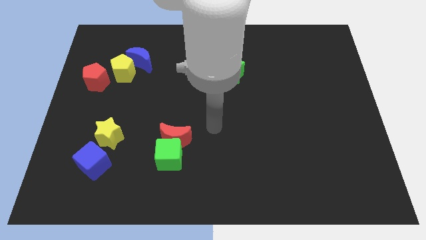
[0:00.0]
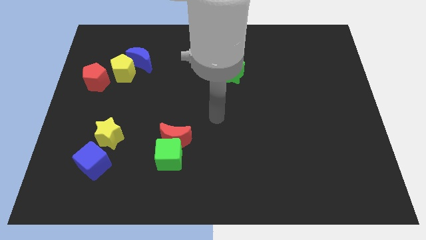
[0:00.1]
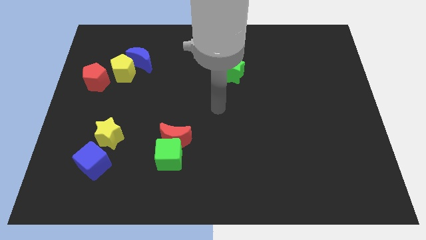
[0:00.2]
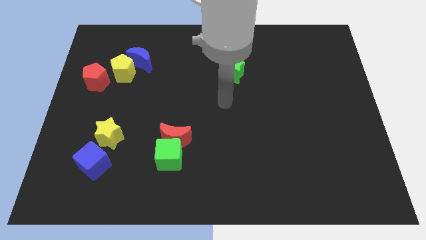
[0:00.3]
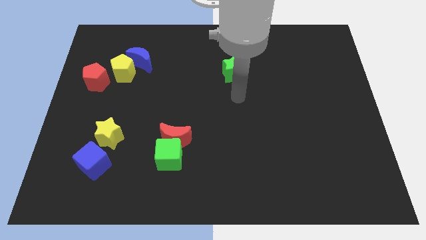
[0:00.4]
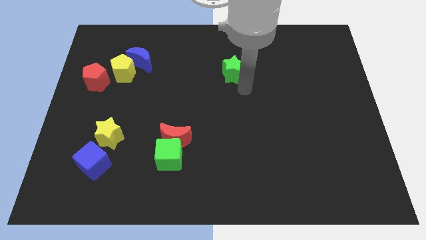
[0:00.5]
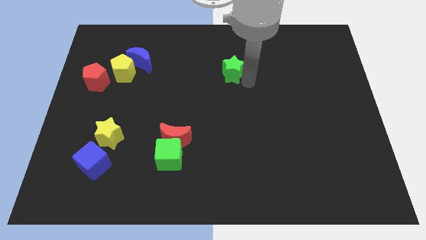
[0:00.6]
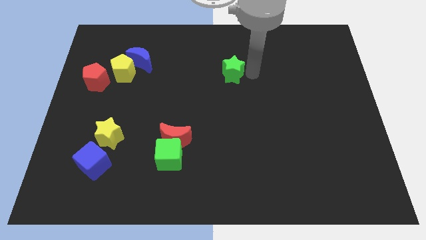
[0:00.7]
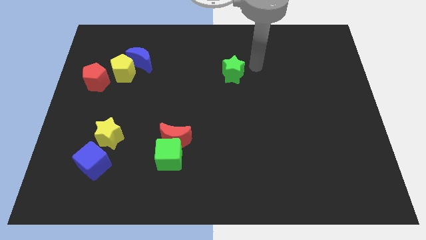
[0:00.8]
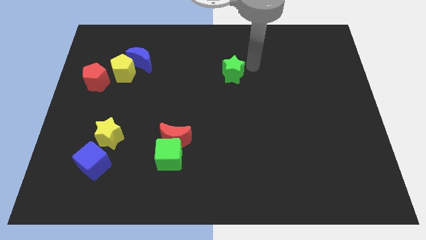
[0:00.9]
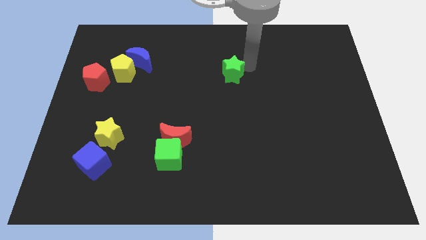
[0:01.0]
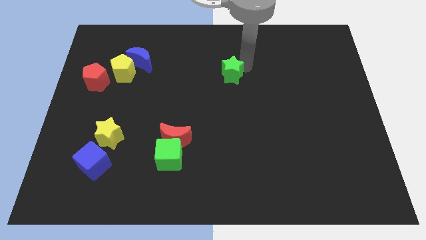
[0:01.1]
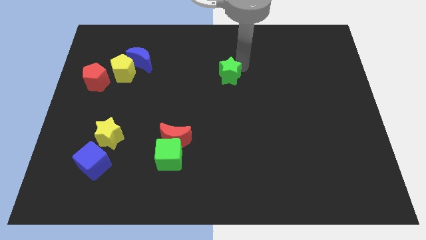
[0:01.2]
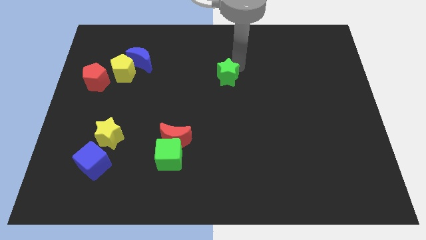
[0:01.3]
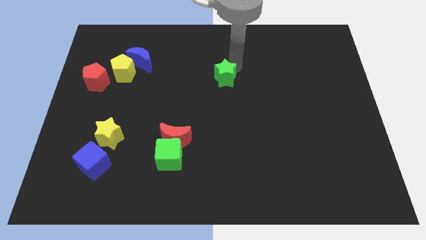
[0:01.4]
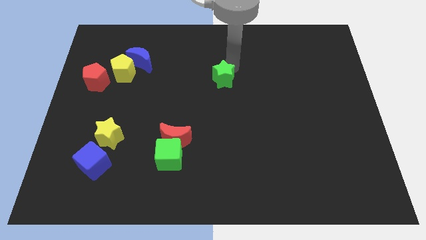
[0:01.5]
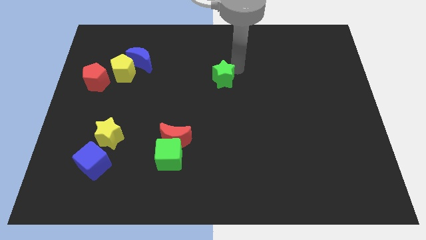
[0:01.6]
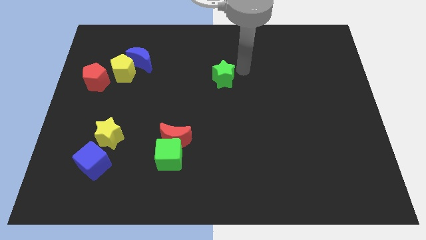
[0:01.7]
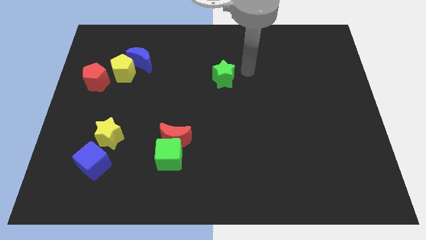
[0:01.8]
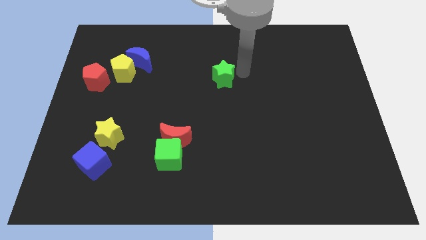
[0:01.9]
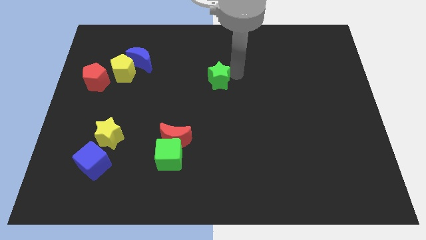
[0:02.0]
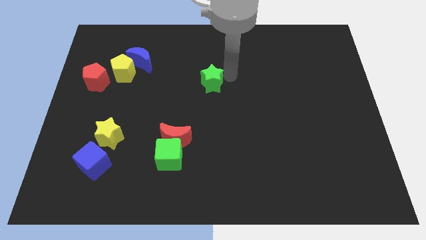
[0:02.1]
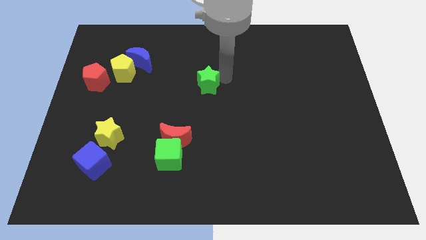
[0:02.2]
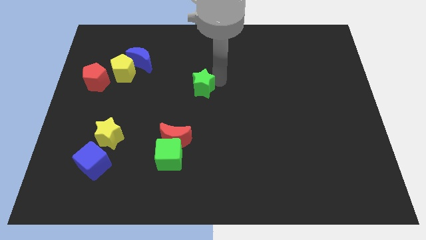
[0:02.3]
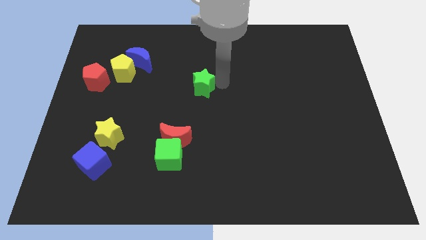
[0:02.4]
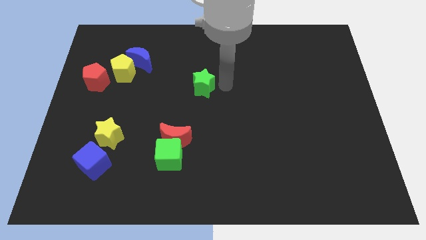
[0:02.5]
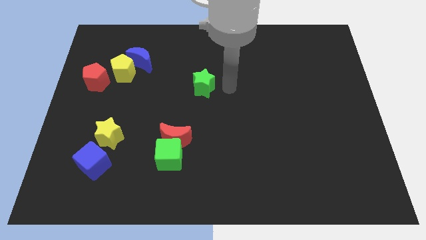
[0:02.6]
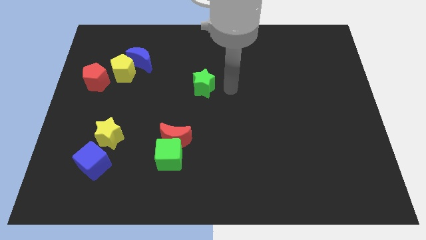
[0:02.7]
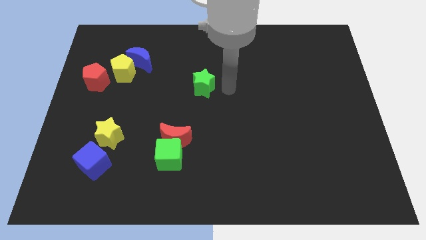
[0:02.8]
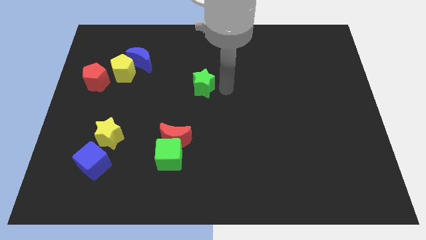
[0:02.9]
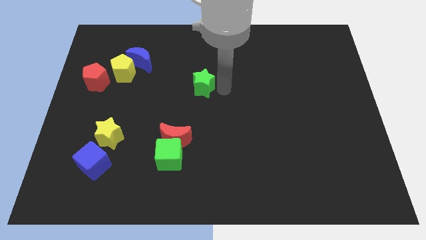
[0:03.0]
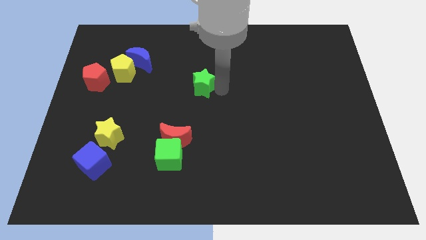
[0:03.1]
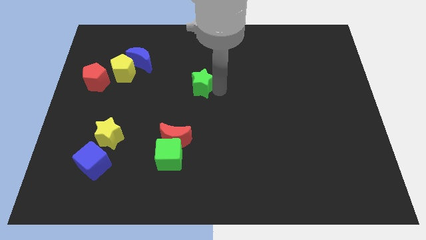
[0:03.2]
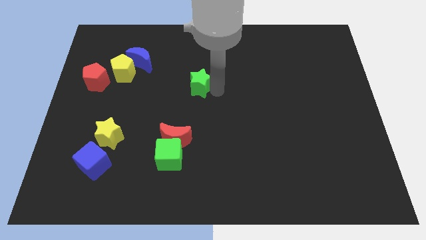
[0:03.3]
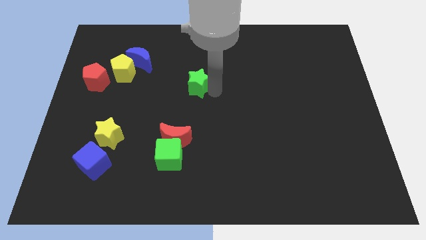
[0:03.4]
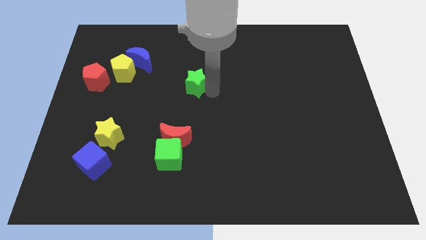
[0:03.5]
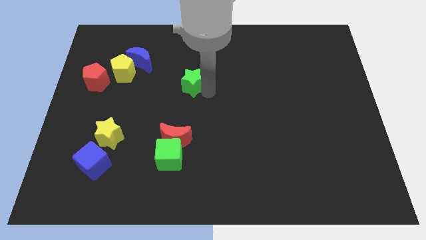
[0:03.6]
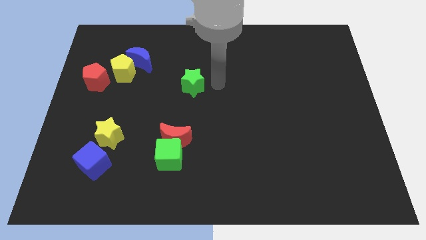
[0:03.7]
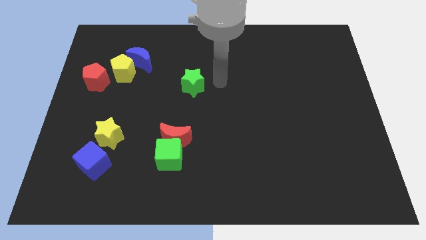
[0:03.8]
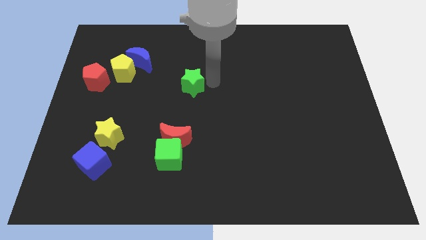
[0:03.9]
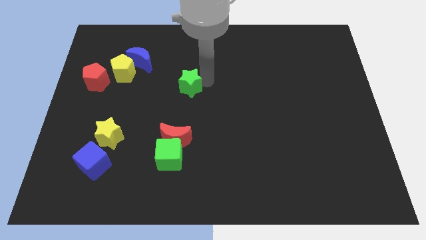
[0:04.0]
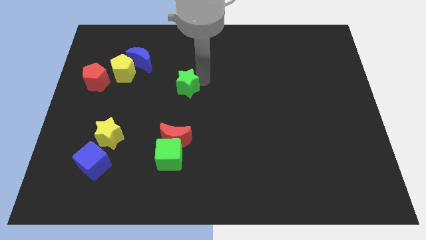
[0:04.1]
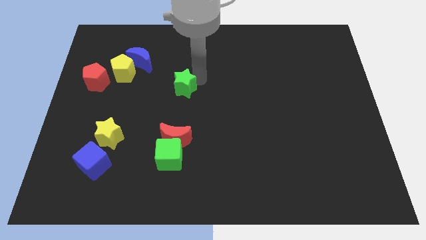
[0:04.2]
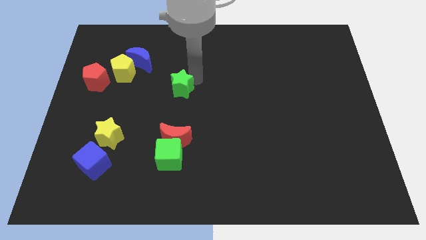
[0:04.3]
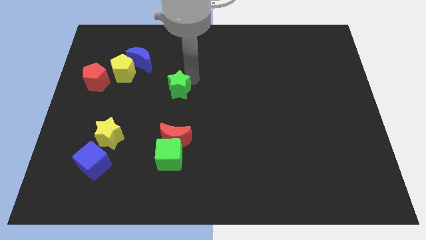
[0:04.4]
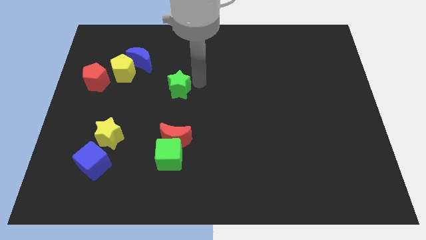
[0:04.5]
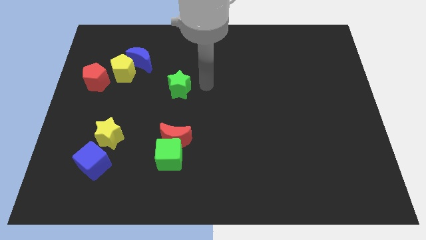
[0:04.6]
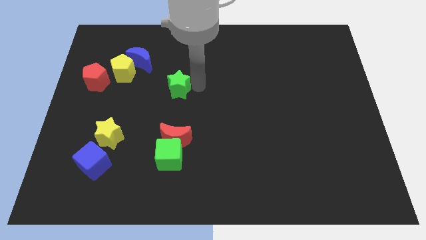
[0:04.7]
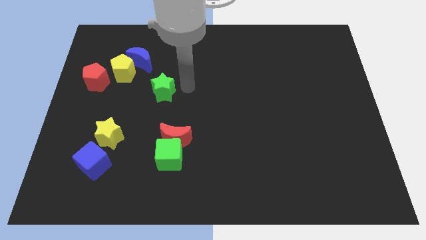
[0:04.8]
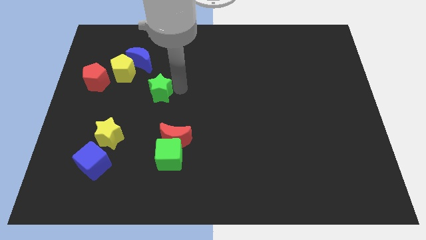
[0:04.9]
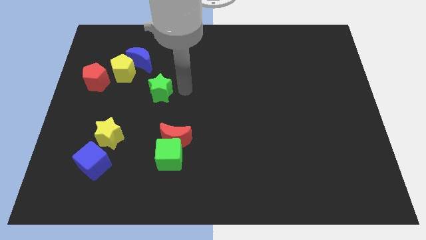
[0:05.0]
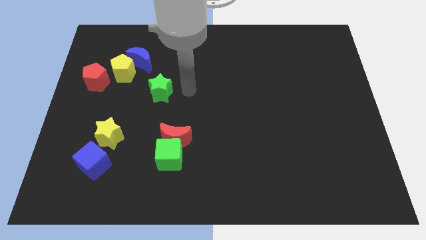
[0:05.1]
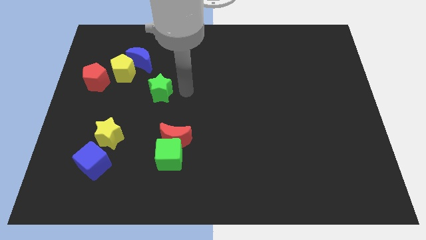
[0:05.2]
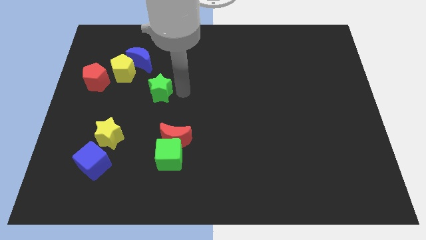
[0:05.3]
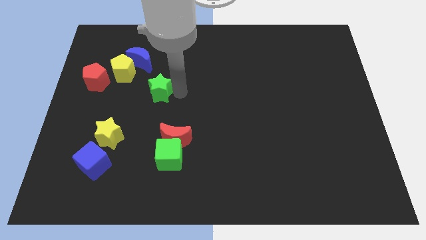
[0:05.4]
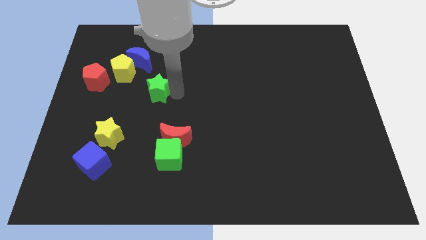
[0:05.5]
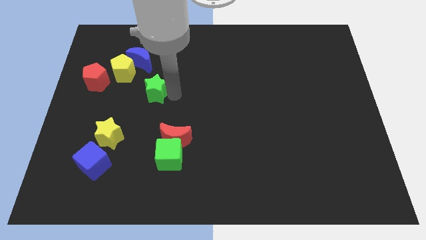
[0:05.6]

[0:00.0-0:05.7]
slide the green star below the blue moon

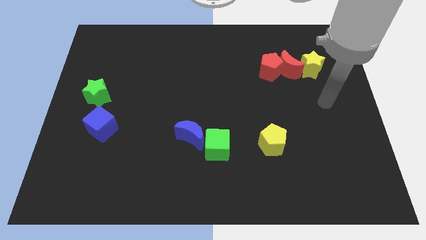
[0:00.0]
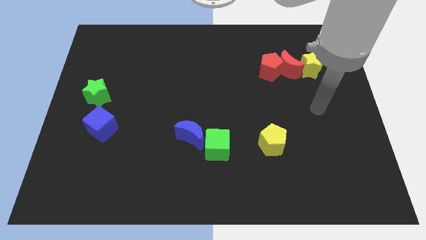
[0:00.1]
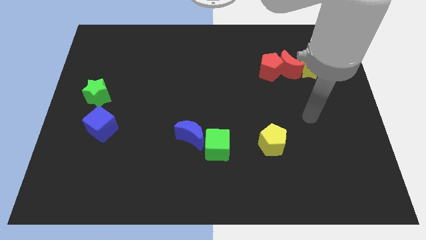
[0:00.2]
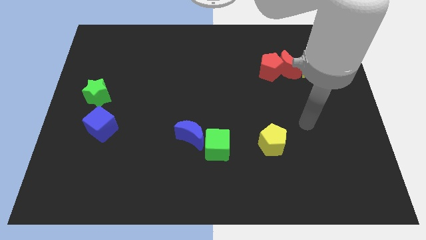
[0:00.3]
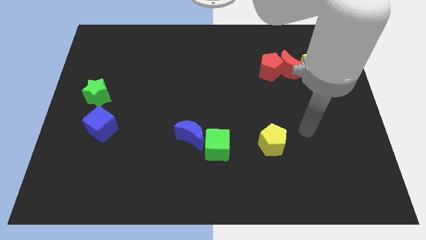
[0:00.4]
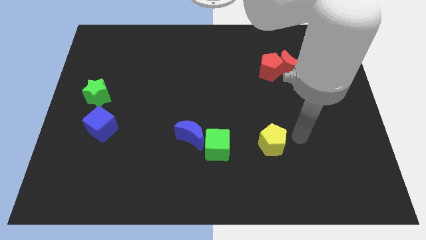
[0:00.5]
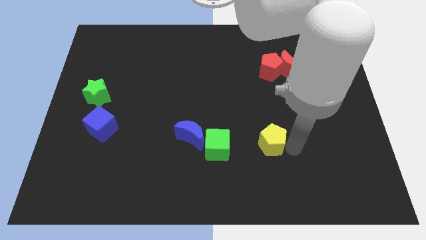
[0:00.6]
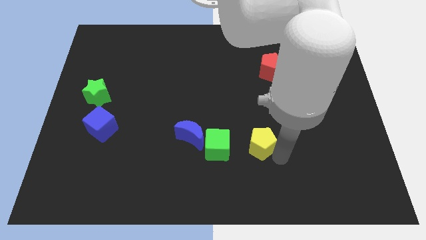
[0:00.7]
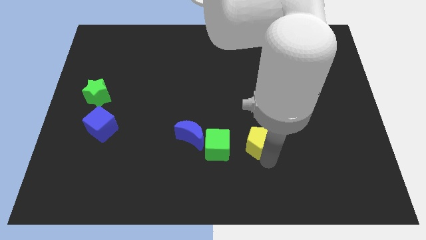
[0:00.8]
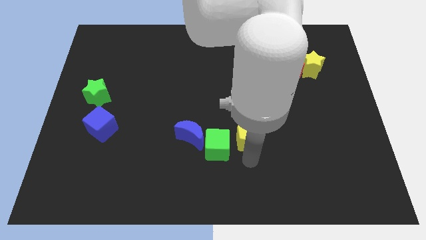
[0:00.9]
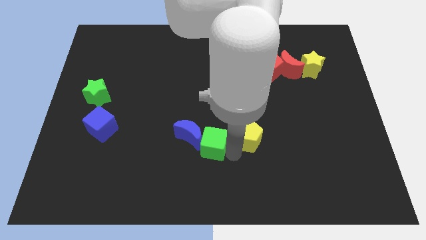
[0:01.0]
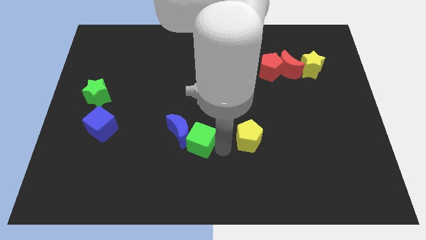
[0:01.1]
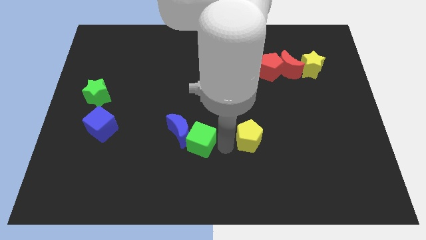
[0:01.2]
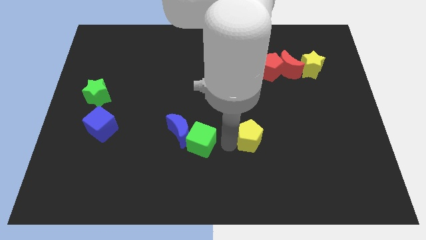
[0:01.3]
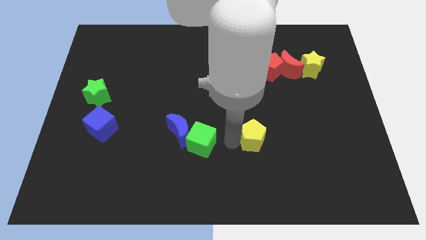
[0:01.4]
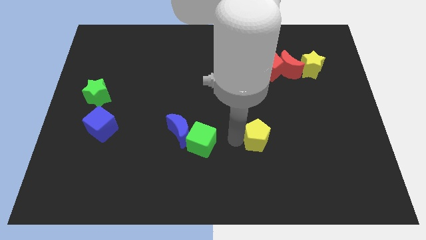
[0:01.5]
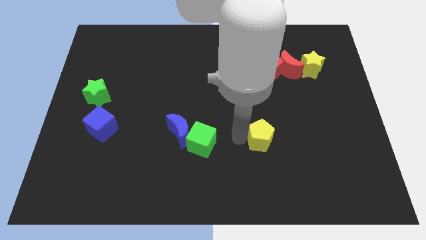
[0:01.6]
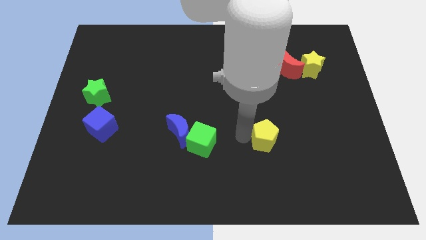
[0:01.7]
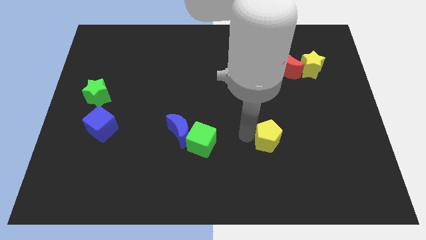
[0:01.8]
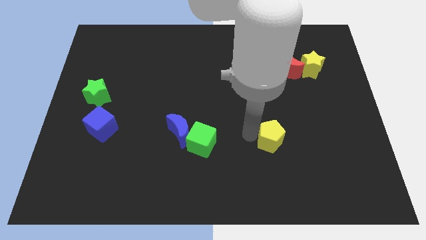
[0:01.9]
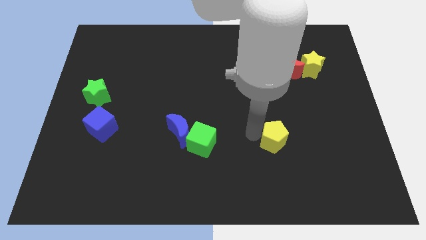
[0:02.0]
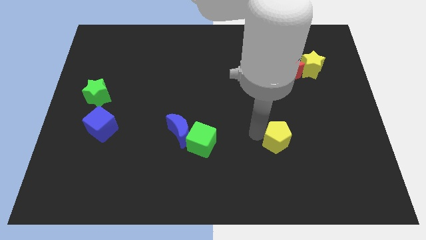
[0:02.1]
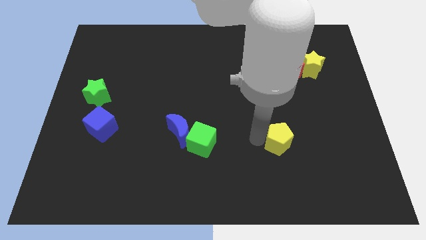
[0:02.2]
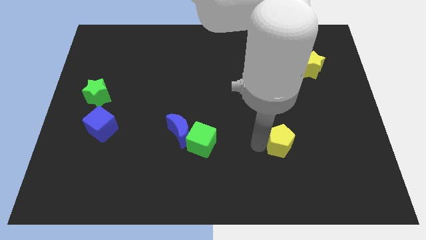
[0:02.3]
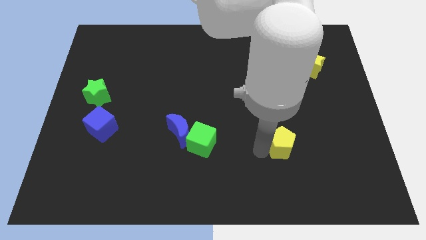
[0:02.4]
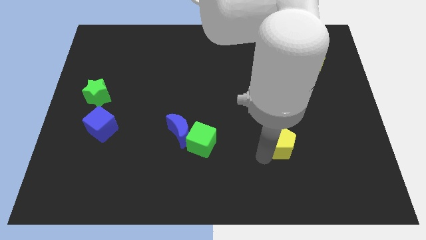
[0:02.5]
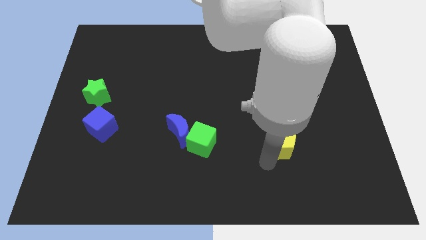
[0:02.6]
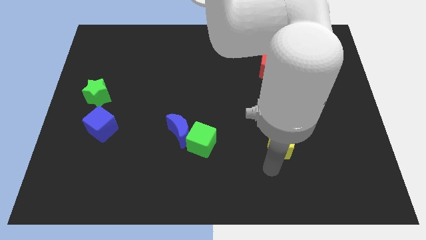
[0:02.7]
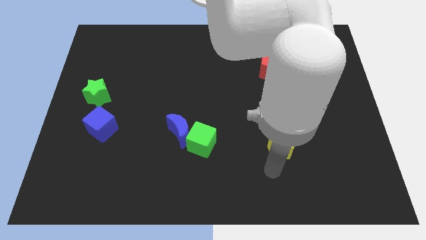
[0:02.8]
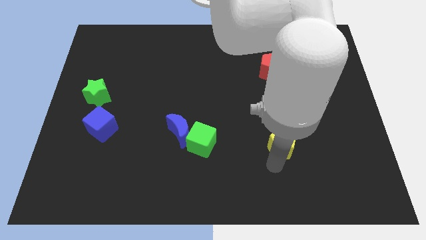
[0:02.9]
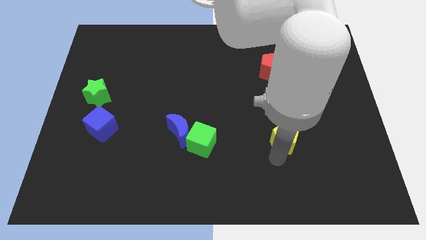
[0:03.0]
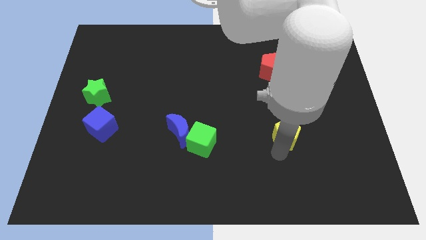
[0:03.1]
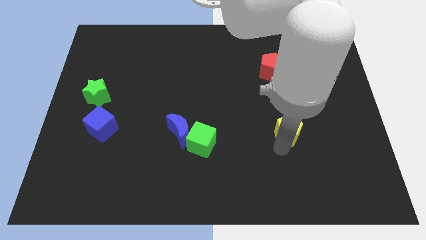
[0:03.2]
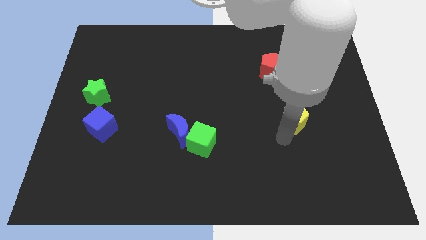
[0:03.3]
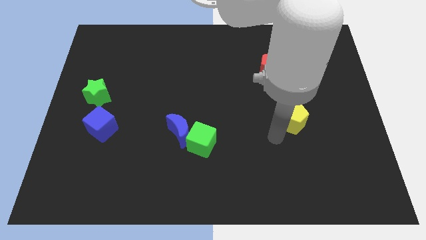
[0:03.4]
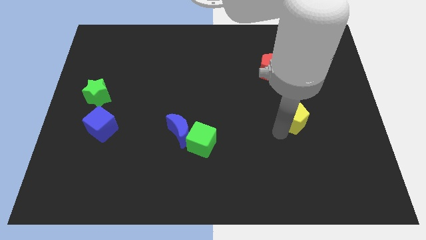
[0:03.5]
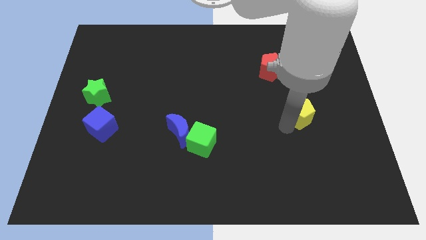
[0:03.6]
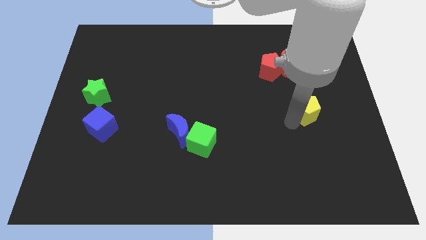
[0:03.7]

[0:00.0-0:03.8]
slide the yellow pentagon to the bottom of the yellow star
